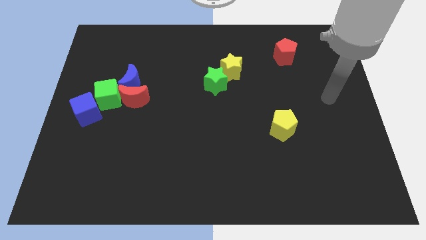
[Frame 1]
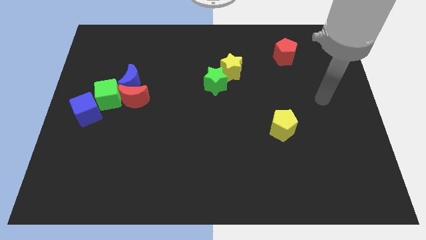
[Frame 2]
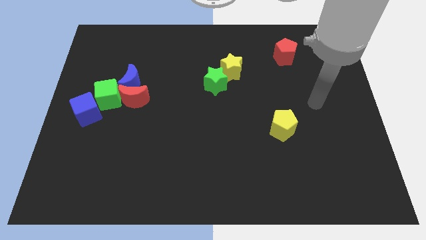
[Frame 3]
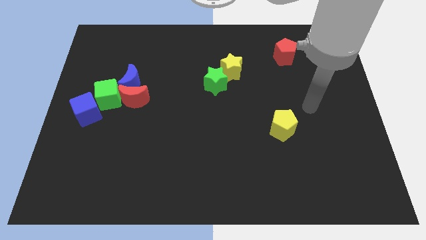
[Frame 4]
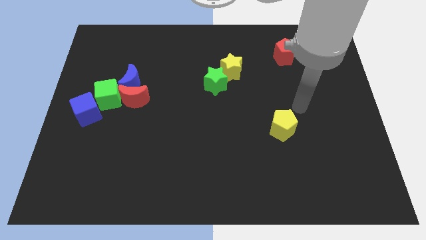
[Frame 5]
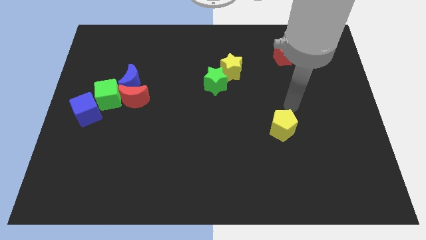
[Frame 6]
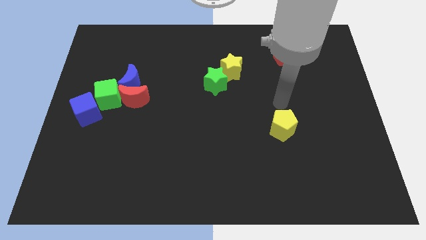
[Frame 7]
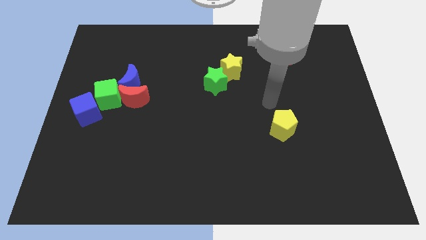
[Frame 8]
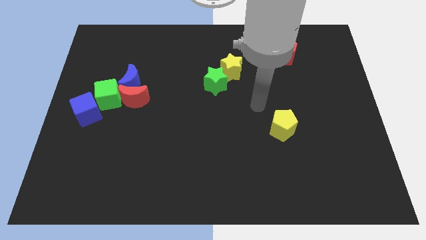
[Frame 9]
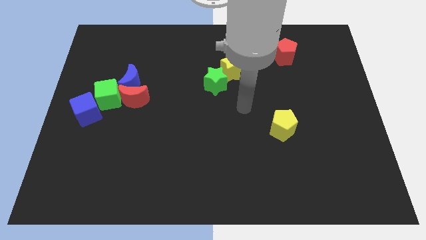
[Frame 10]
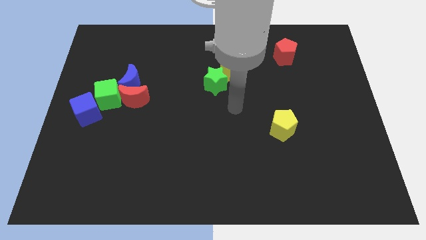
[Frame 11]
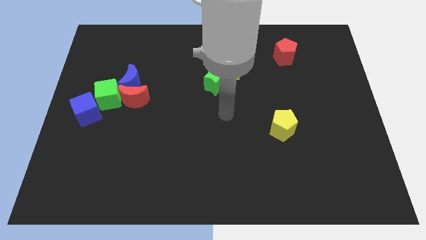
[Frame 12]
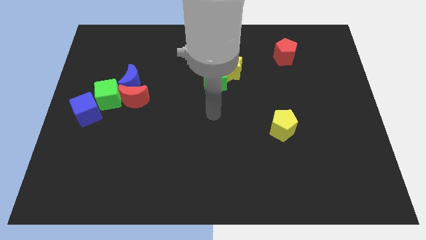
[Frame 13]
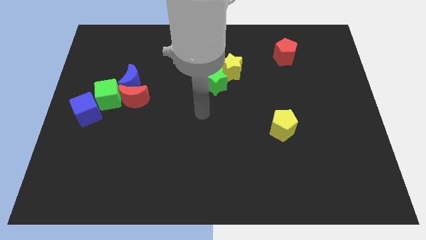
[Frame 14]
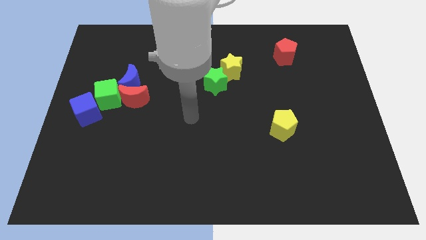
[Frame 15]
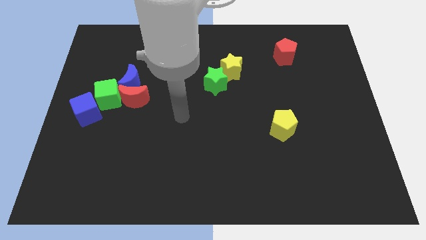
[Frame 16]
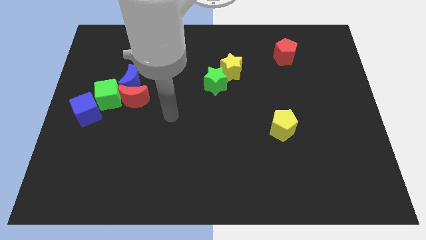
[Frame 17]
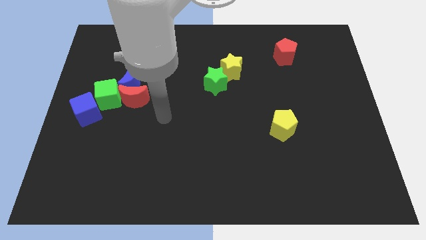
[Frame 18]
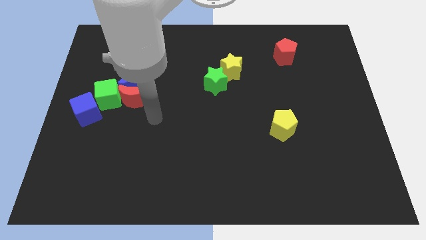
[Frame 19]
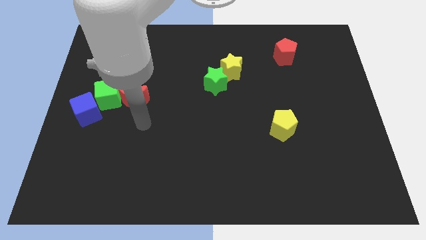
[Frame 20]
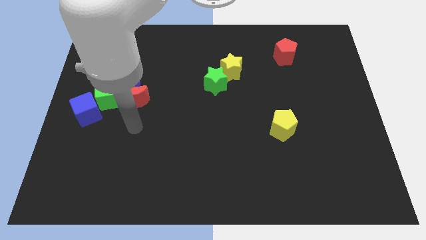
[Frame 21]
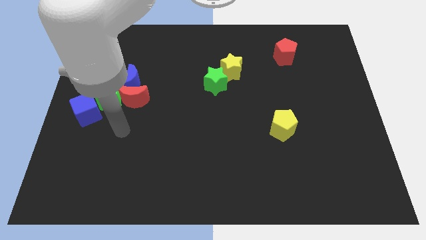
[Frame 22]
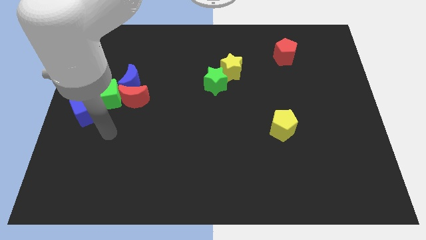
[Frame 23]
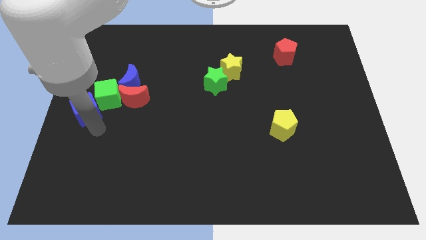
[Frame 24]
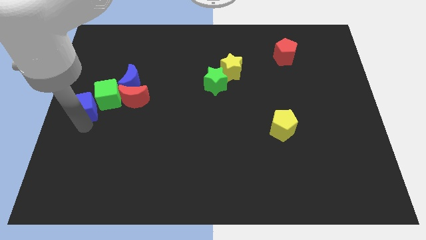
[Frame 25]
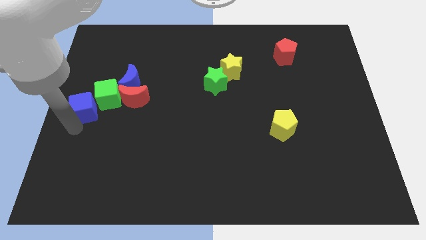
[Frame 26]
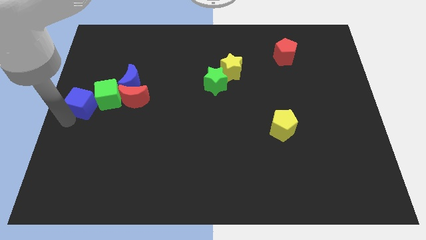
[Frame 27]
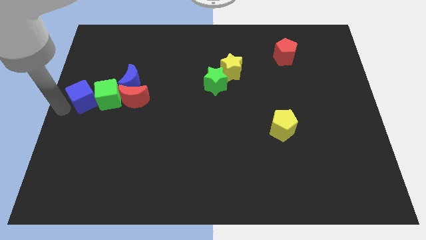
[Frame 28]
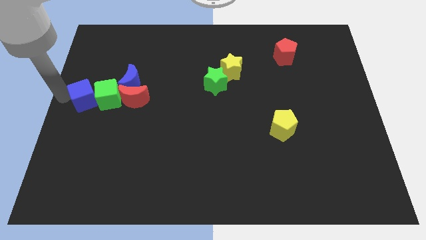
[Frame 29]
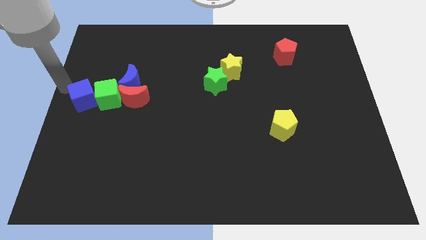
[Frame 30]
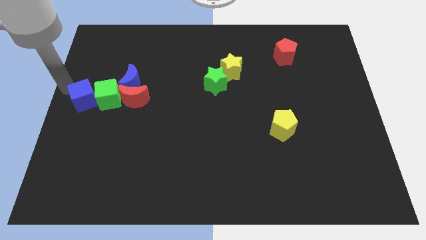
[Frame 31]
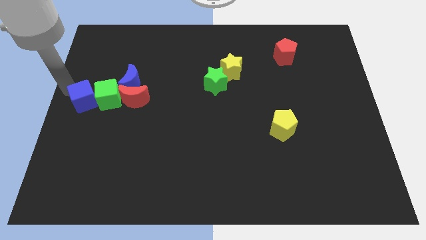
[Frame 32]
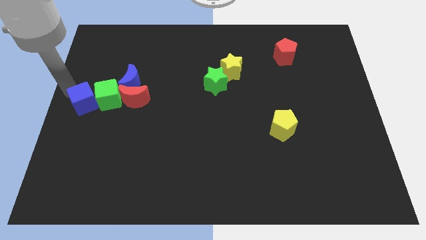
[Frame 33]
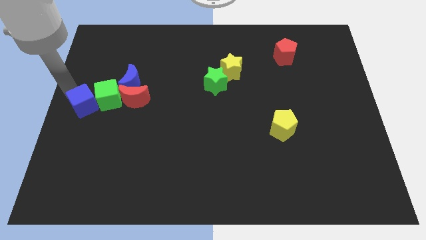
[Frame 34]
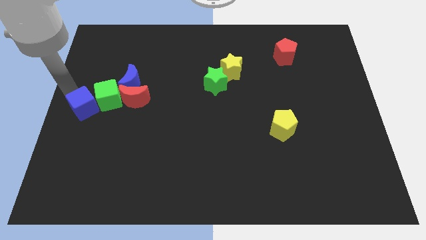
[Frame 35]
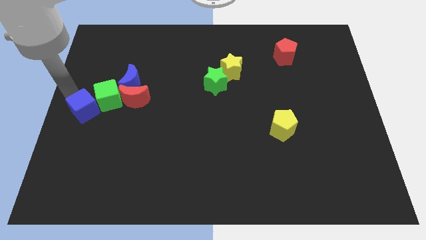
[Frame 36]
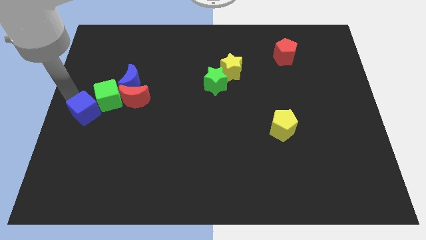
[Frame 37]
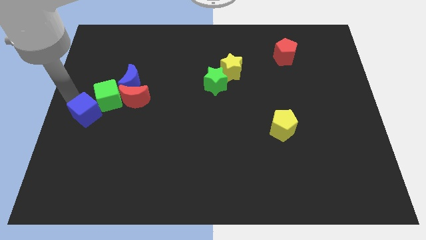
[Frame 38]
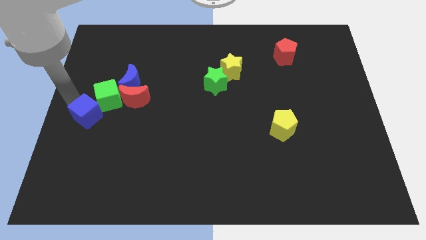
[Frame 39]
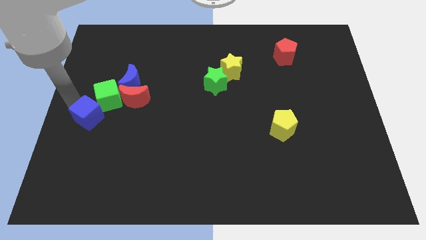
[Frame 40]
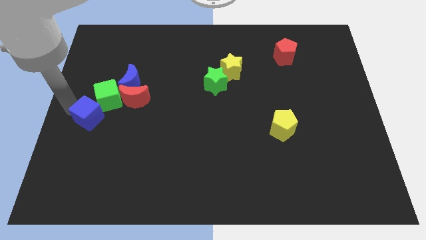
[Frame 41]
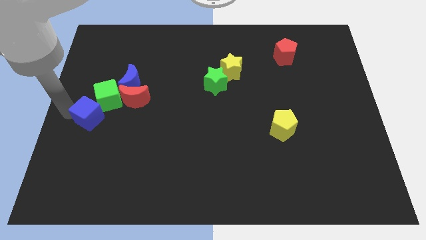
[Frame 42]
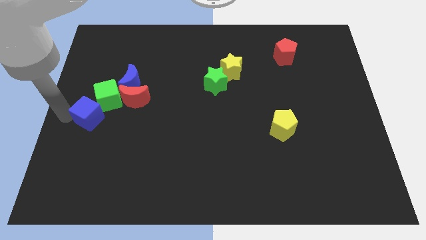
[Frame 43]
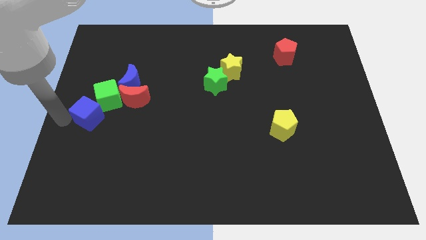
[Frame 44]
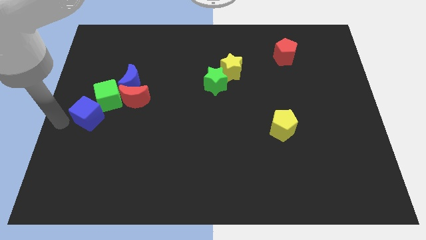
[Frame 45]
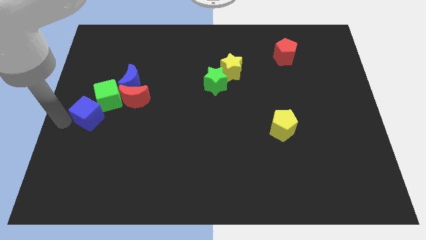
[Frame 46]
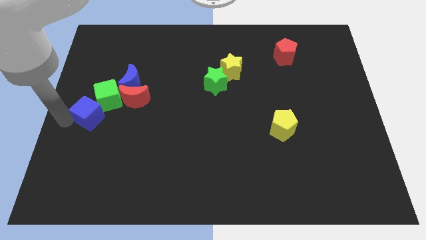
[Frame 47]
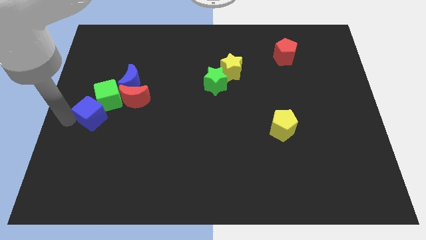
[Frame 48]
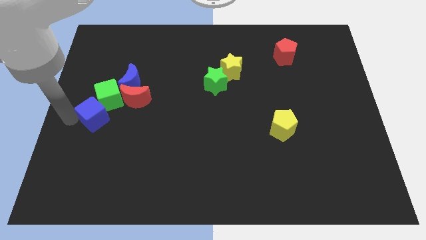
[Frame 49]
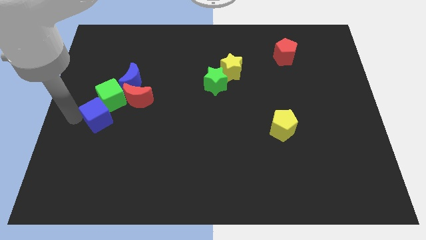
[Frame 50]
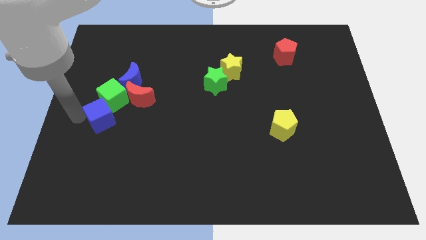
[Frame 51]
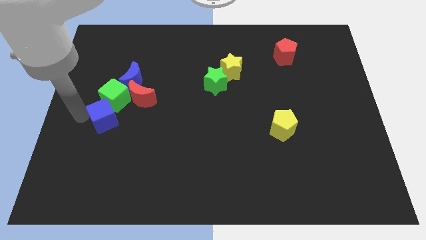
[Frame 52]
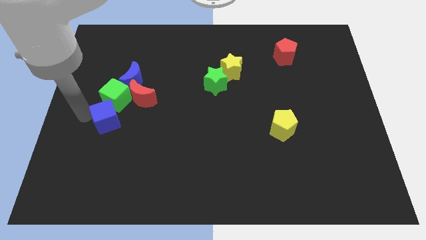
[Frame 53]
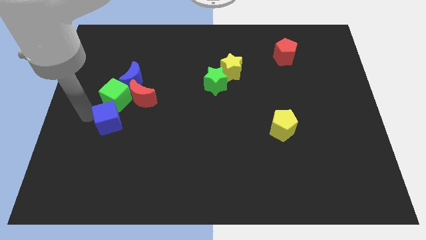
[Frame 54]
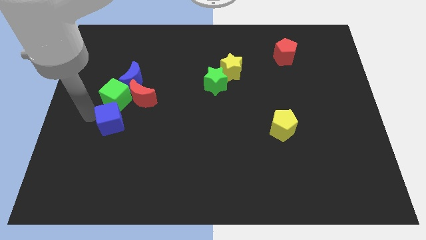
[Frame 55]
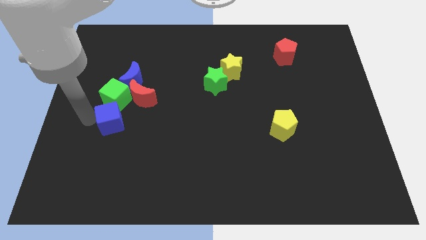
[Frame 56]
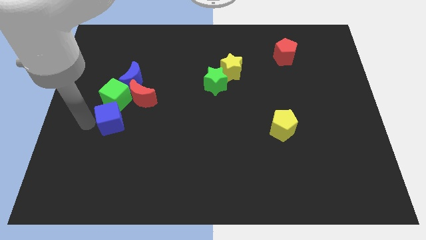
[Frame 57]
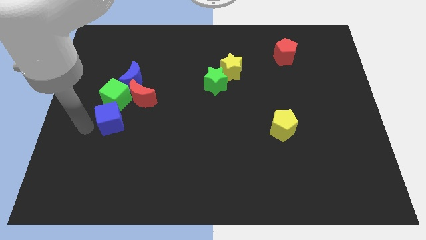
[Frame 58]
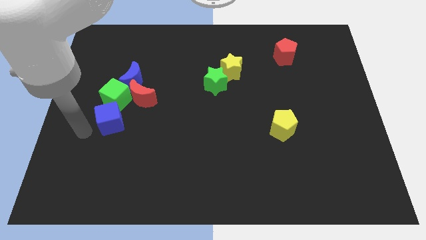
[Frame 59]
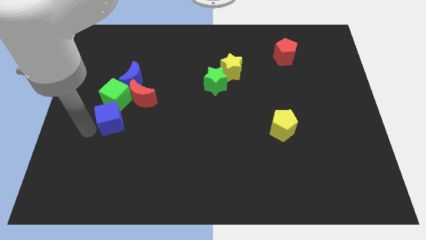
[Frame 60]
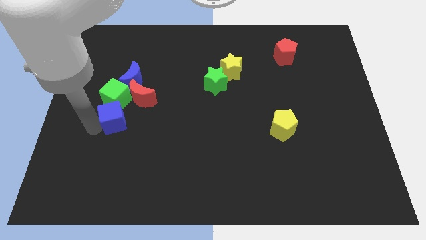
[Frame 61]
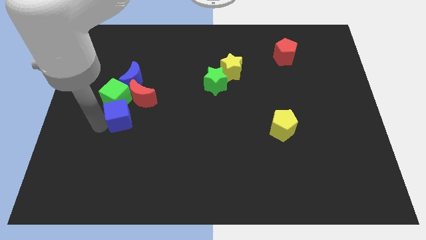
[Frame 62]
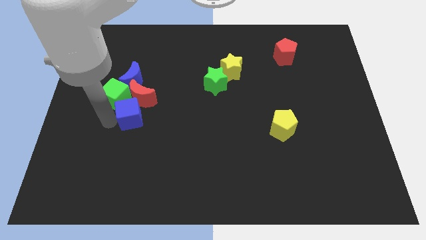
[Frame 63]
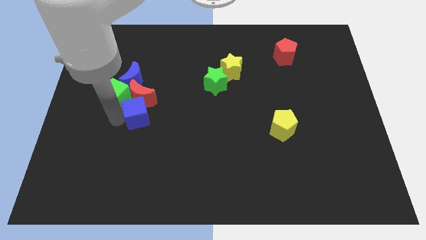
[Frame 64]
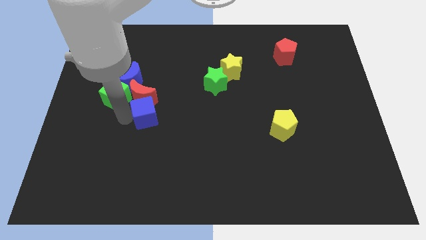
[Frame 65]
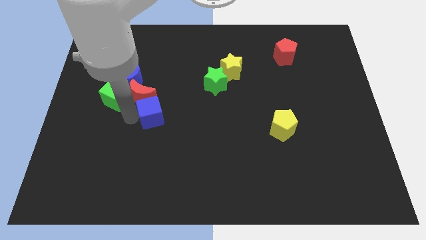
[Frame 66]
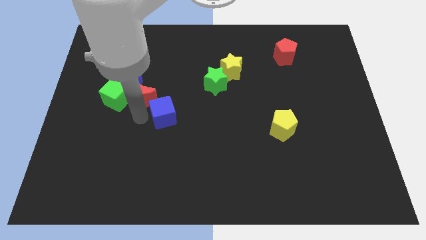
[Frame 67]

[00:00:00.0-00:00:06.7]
put the blue cube to the right of the red moon
